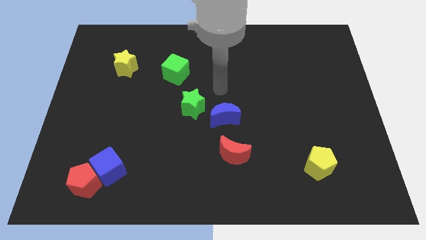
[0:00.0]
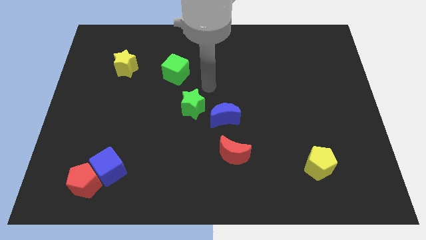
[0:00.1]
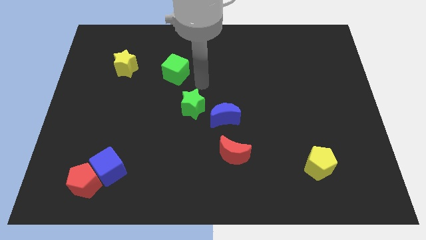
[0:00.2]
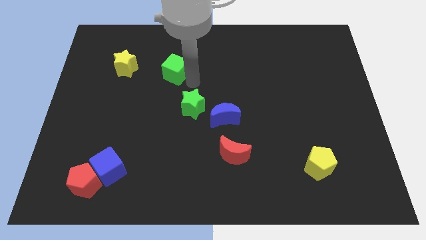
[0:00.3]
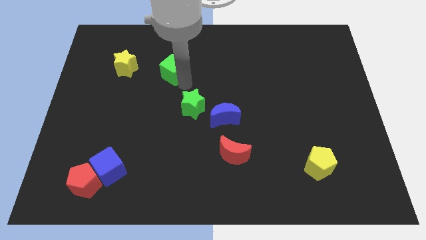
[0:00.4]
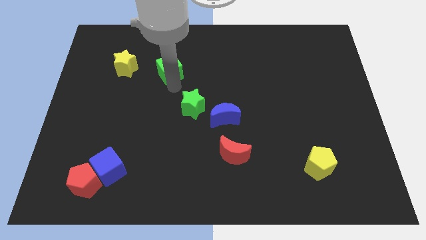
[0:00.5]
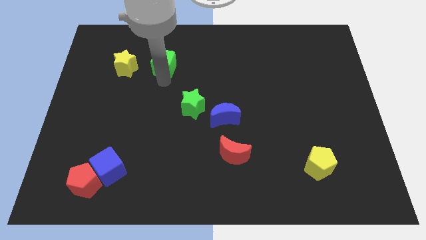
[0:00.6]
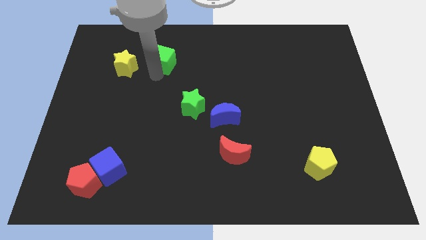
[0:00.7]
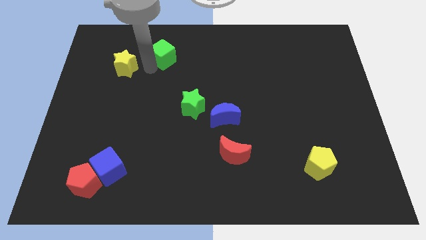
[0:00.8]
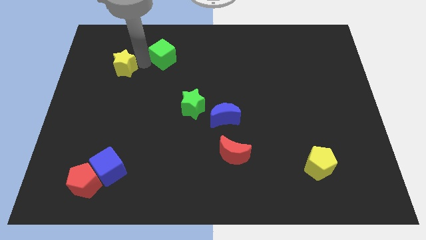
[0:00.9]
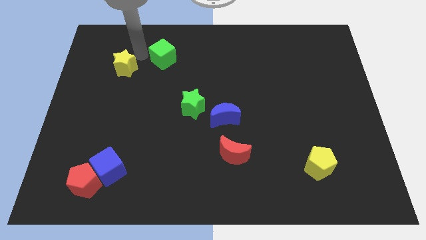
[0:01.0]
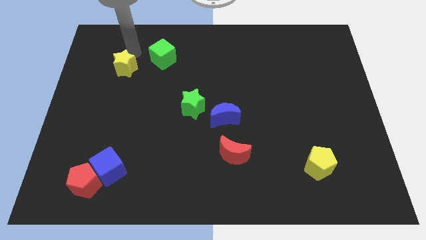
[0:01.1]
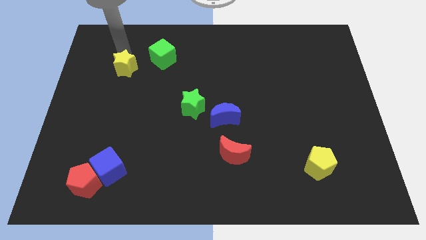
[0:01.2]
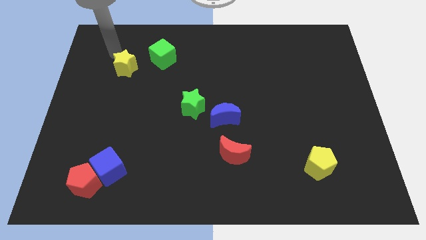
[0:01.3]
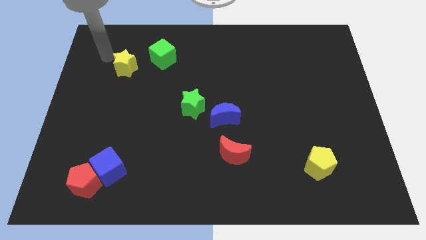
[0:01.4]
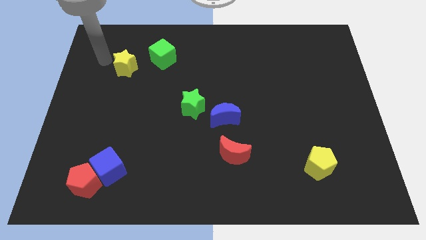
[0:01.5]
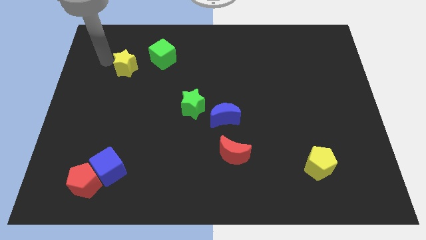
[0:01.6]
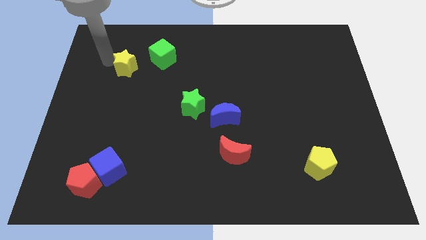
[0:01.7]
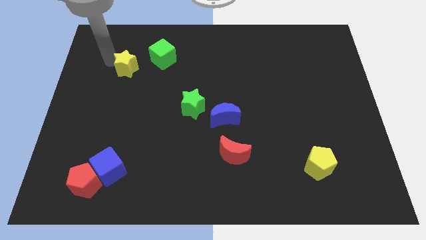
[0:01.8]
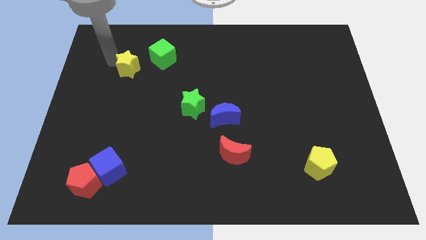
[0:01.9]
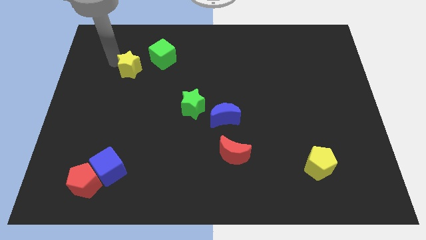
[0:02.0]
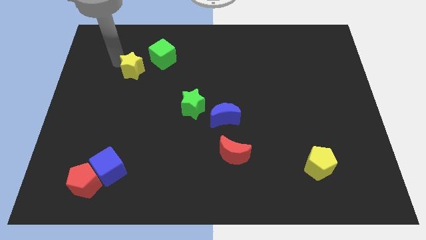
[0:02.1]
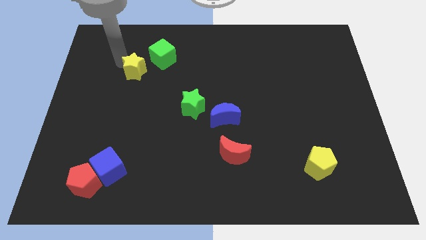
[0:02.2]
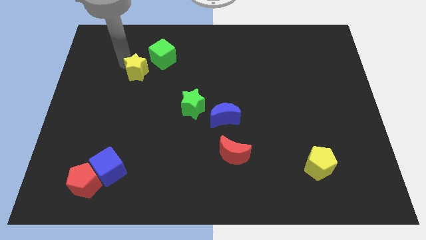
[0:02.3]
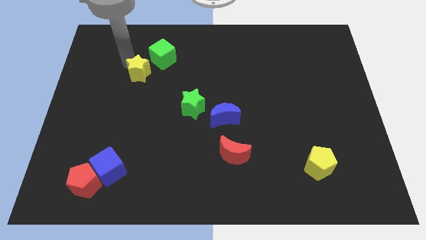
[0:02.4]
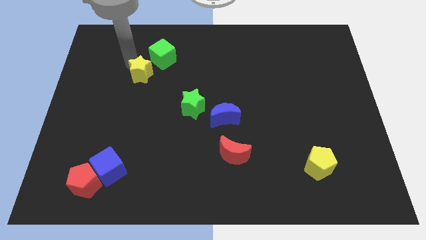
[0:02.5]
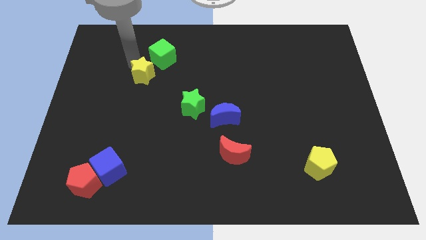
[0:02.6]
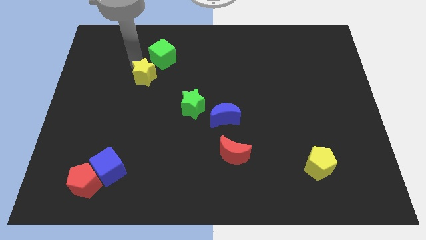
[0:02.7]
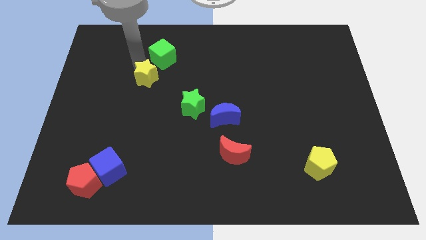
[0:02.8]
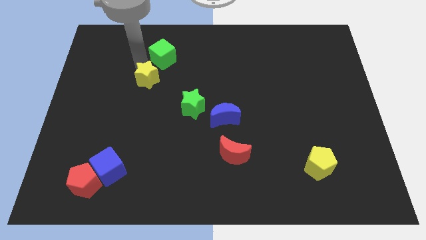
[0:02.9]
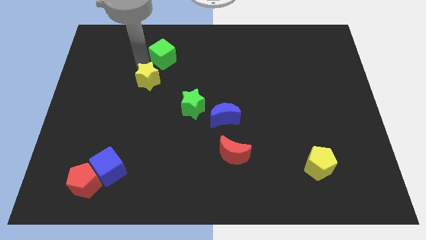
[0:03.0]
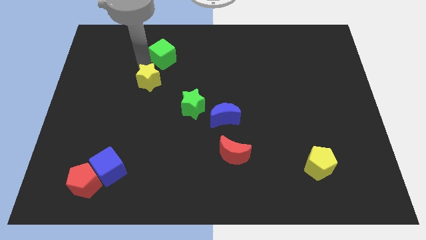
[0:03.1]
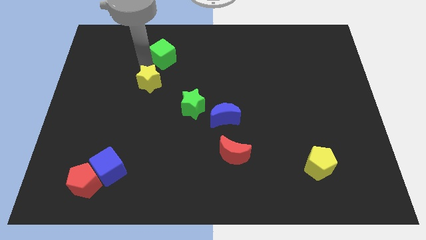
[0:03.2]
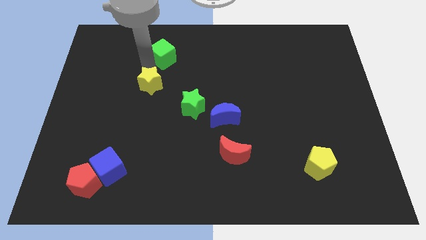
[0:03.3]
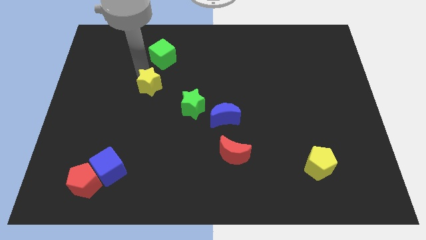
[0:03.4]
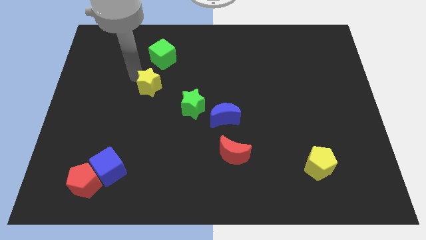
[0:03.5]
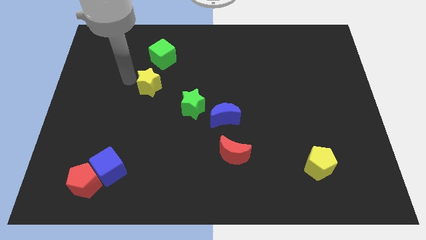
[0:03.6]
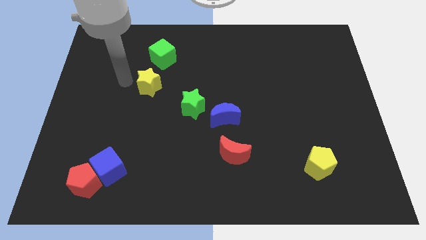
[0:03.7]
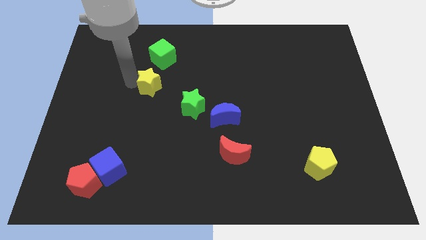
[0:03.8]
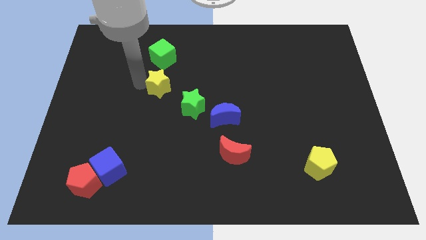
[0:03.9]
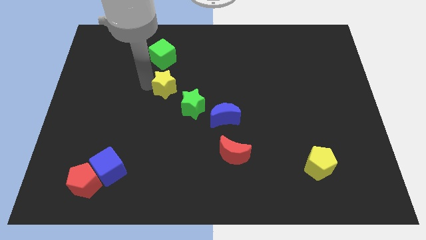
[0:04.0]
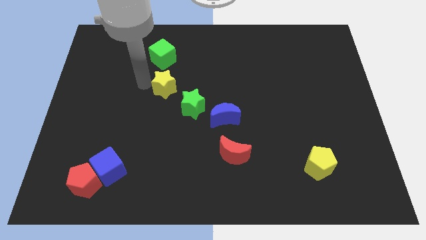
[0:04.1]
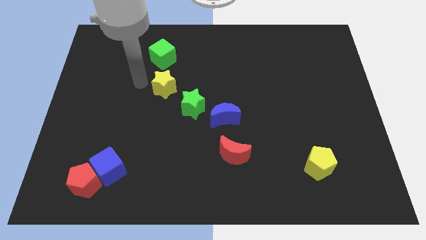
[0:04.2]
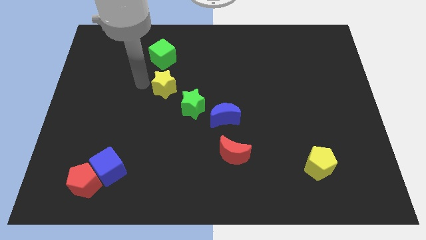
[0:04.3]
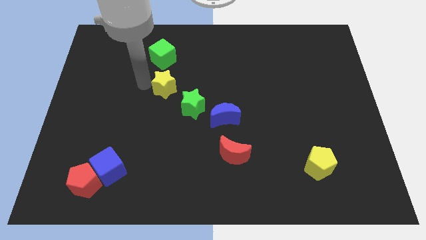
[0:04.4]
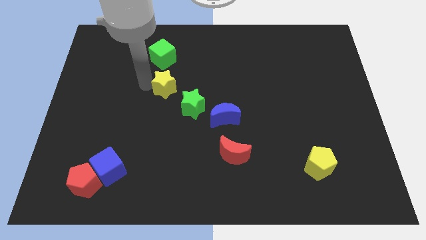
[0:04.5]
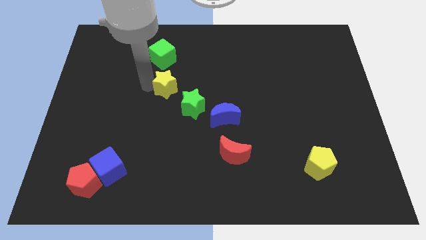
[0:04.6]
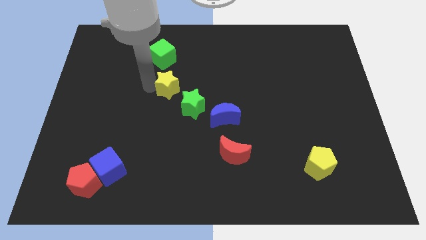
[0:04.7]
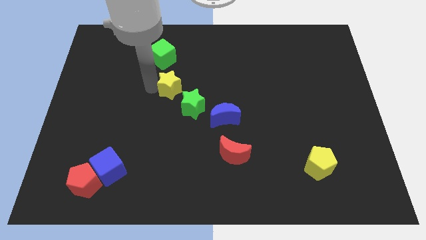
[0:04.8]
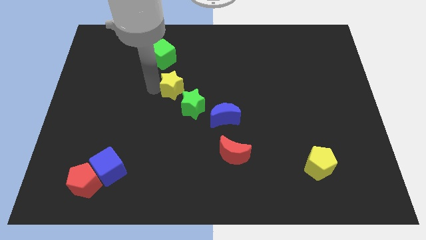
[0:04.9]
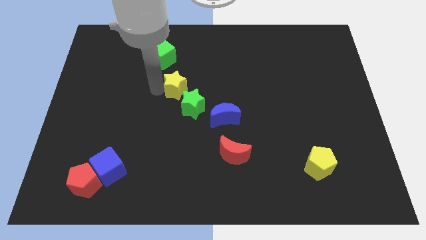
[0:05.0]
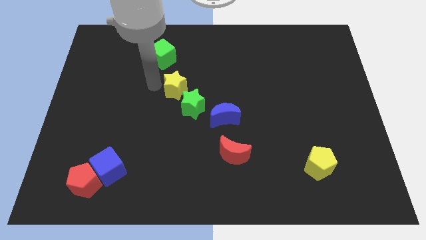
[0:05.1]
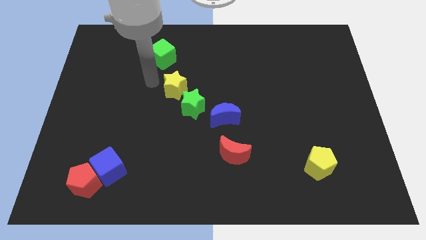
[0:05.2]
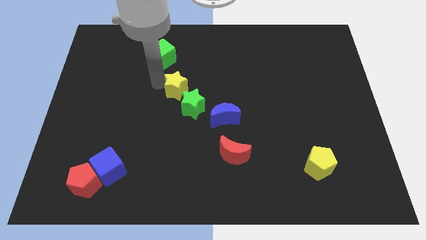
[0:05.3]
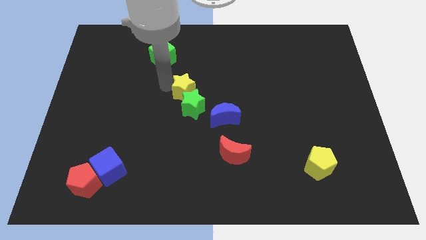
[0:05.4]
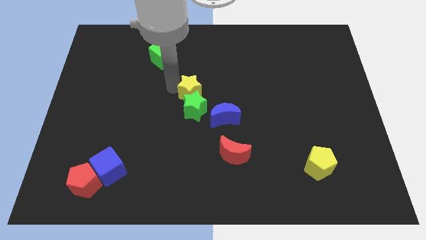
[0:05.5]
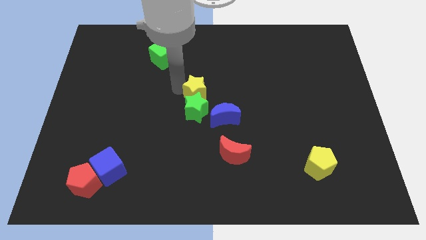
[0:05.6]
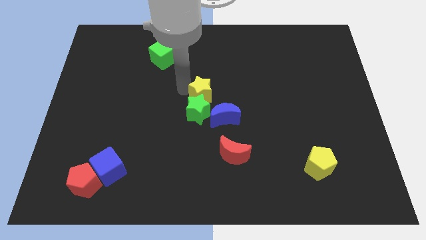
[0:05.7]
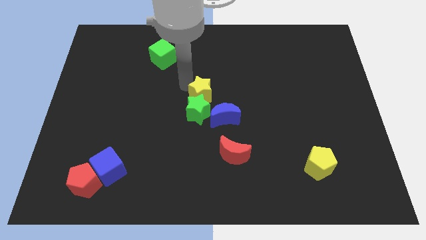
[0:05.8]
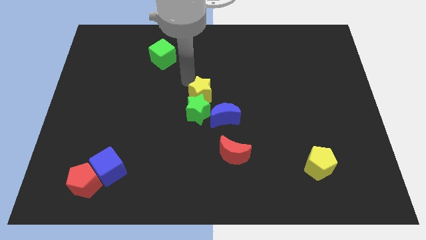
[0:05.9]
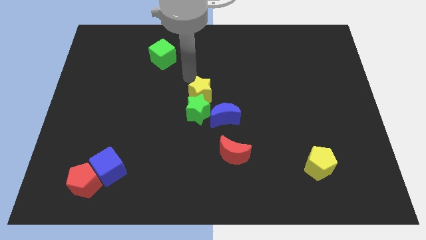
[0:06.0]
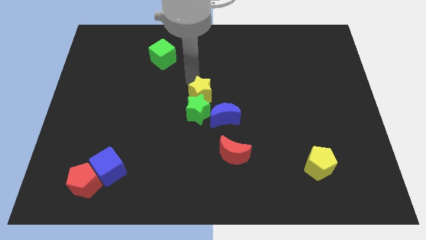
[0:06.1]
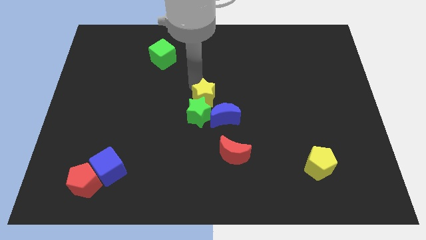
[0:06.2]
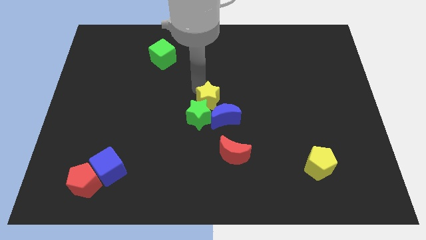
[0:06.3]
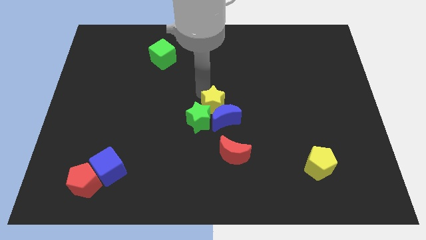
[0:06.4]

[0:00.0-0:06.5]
slide the yellow star next to the blue moon

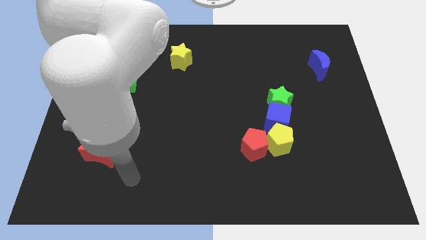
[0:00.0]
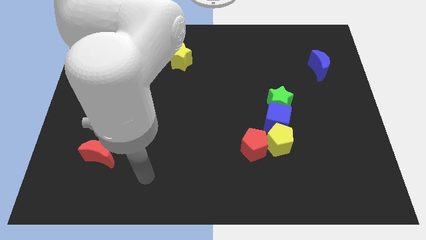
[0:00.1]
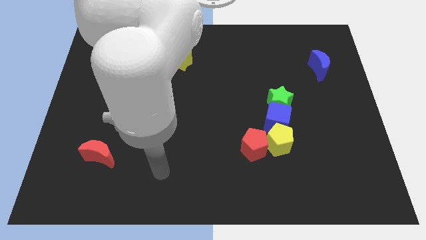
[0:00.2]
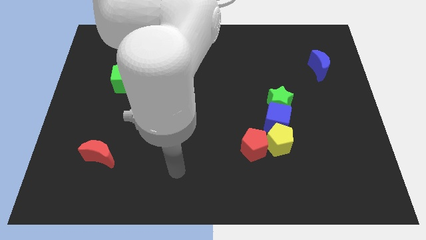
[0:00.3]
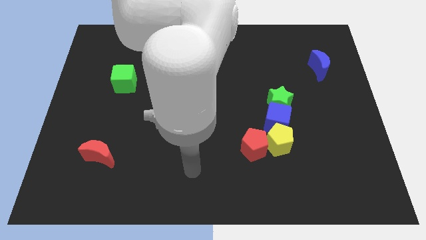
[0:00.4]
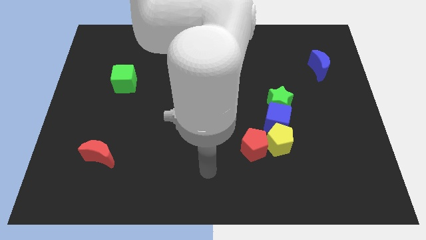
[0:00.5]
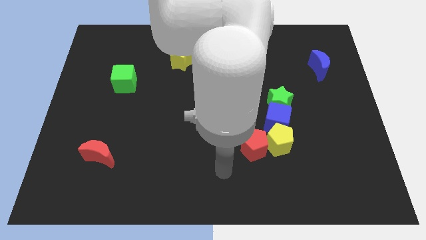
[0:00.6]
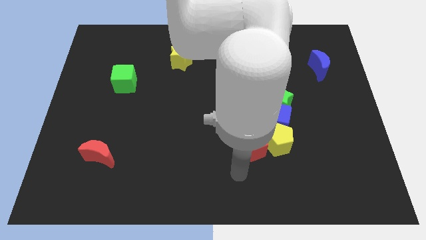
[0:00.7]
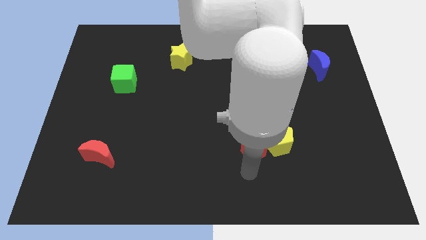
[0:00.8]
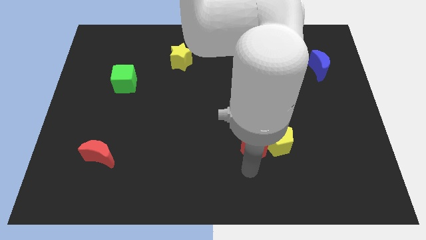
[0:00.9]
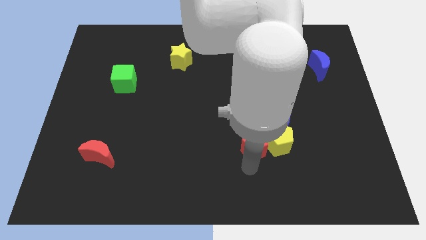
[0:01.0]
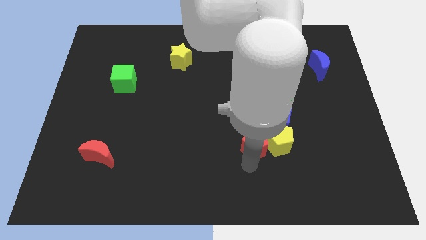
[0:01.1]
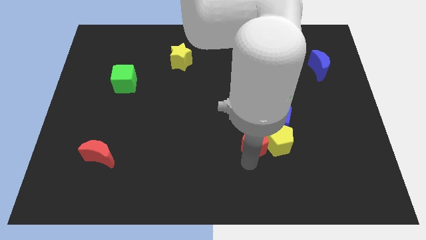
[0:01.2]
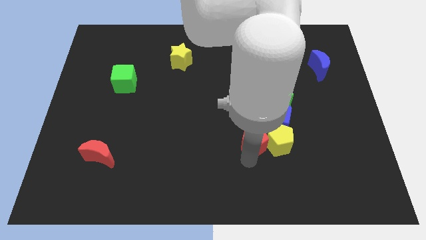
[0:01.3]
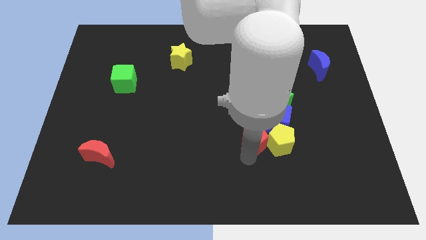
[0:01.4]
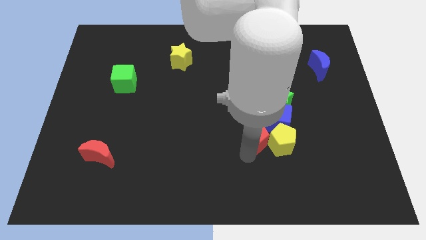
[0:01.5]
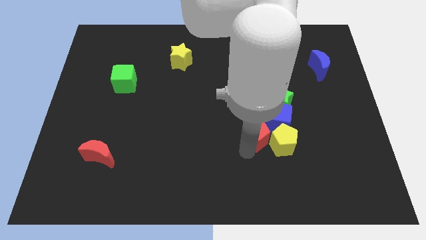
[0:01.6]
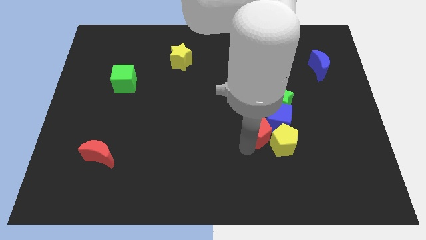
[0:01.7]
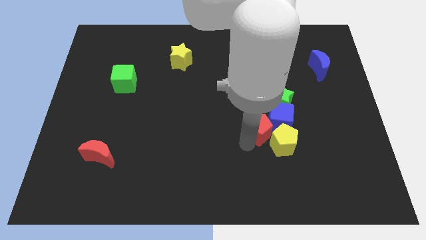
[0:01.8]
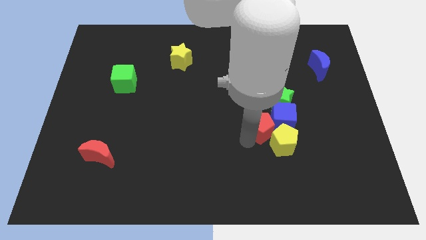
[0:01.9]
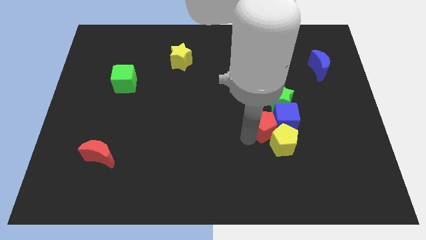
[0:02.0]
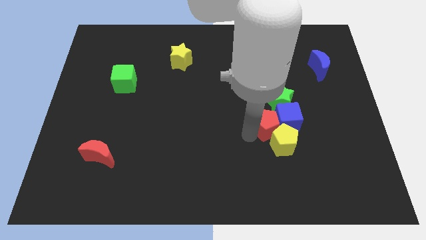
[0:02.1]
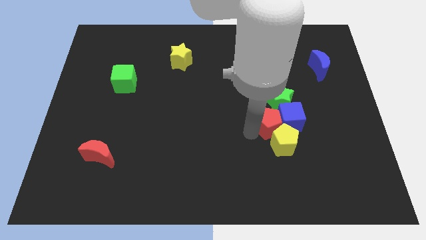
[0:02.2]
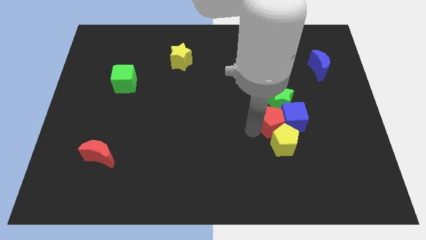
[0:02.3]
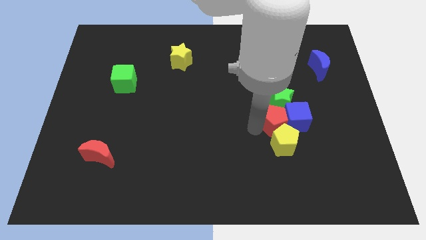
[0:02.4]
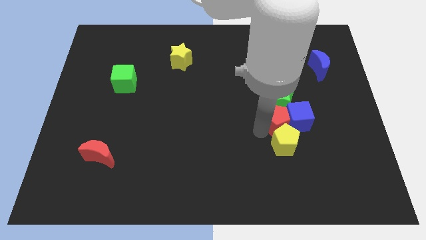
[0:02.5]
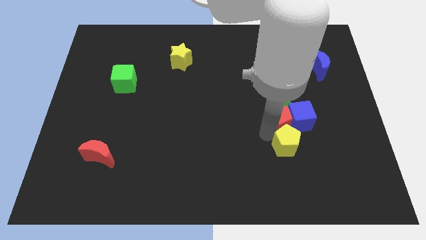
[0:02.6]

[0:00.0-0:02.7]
push the red pentagon to the green star
